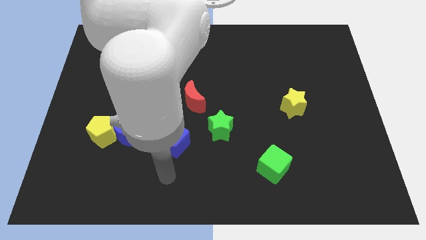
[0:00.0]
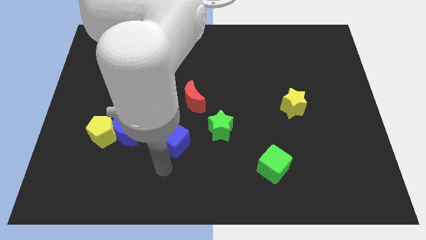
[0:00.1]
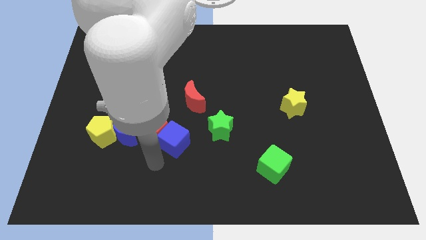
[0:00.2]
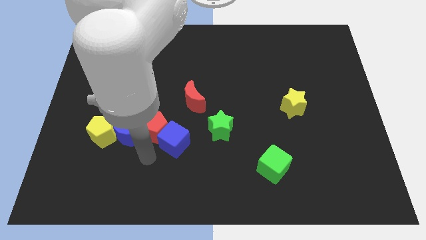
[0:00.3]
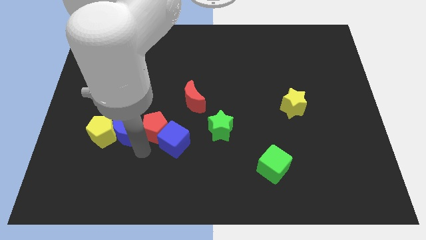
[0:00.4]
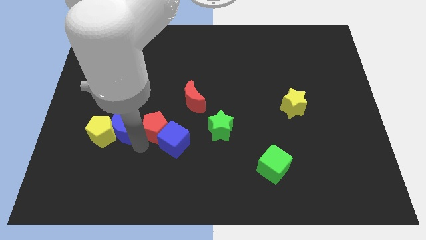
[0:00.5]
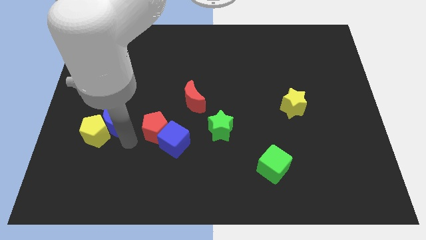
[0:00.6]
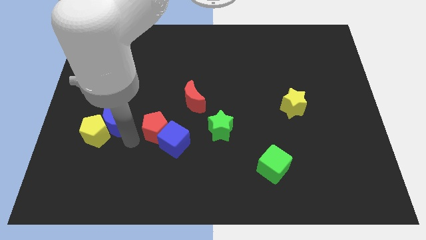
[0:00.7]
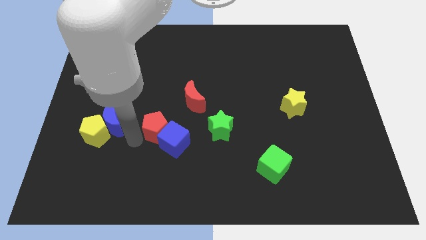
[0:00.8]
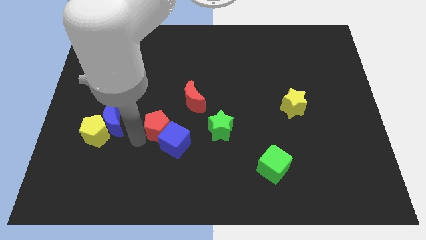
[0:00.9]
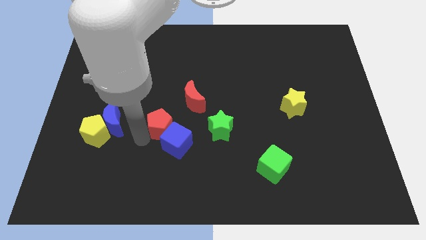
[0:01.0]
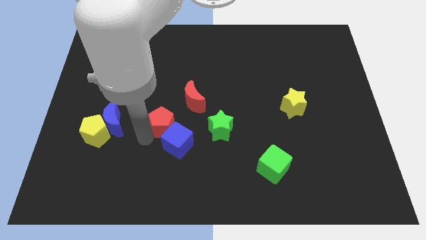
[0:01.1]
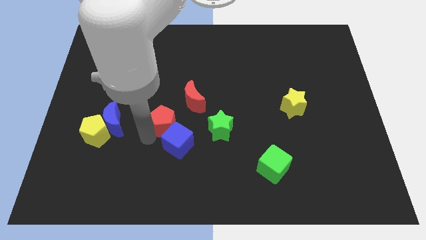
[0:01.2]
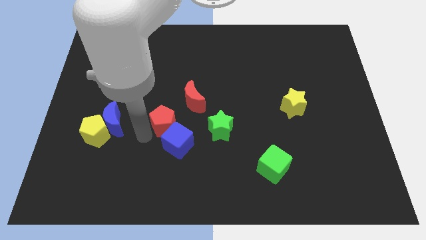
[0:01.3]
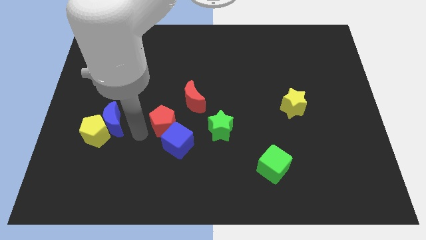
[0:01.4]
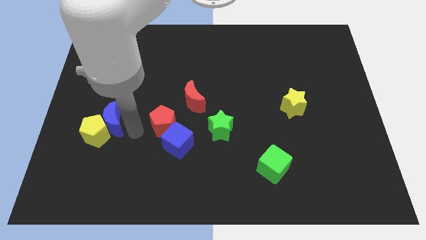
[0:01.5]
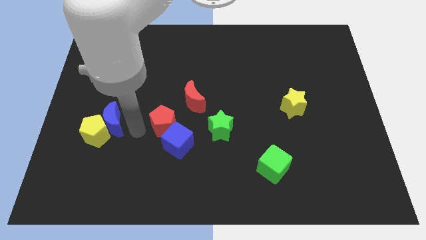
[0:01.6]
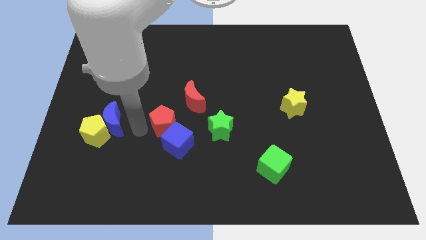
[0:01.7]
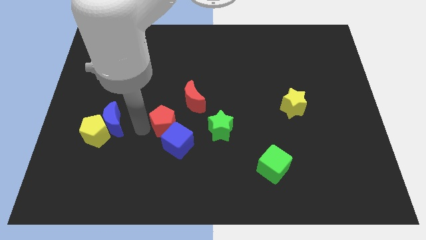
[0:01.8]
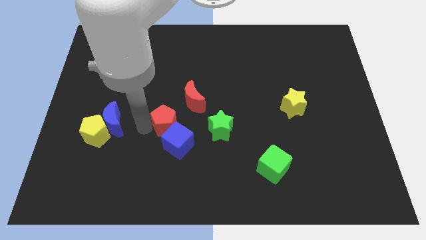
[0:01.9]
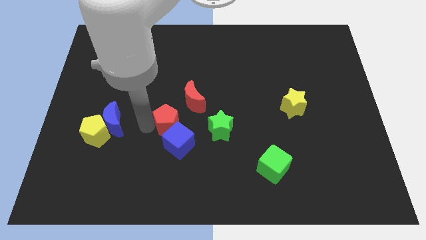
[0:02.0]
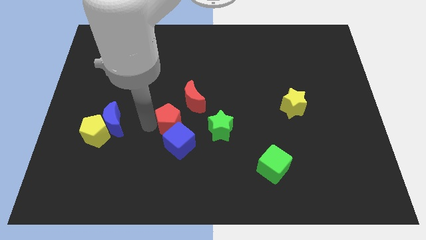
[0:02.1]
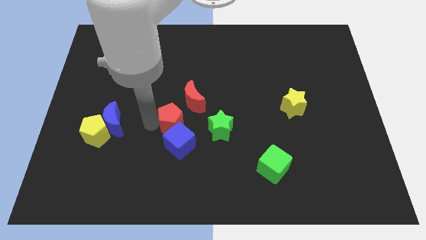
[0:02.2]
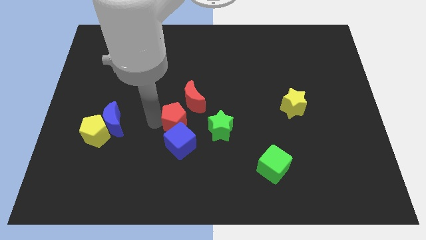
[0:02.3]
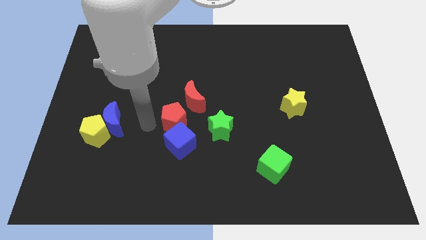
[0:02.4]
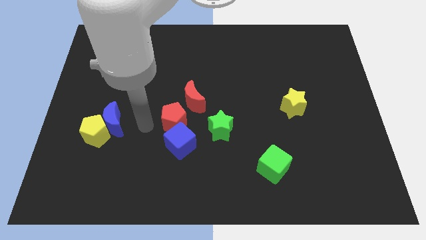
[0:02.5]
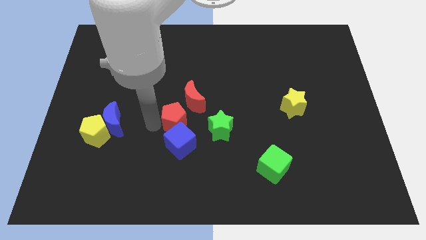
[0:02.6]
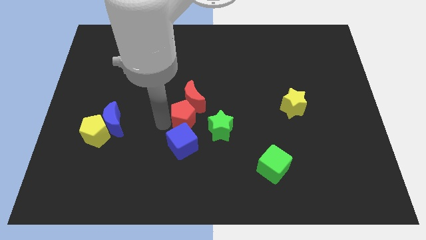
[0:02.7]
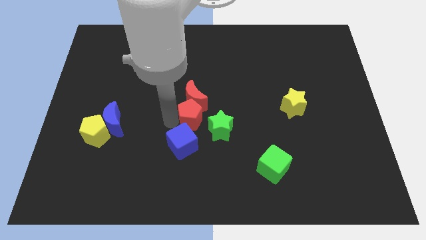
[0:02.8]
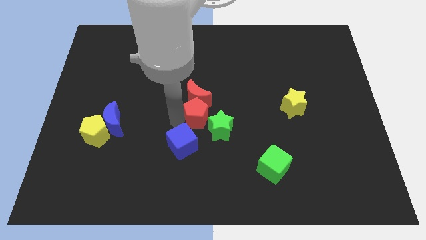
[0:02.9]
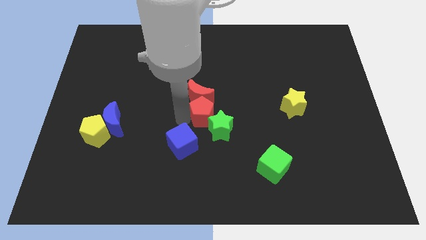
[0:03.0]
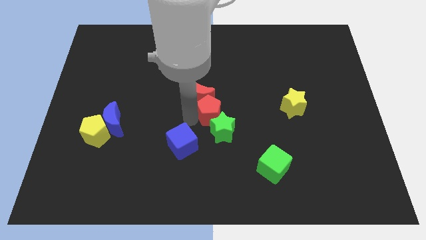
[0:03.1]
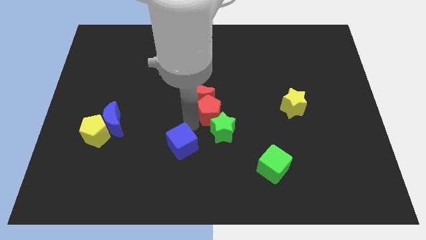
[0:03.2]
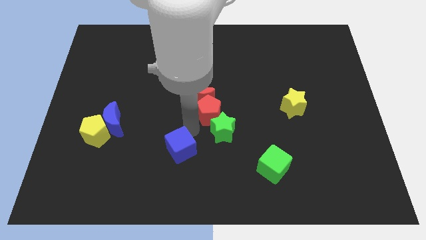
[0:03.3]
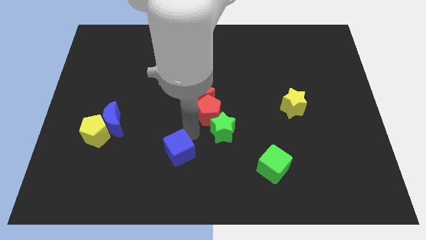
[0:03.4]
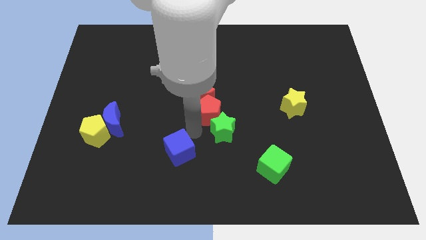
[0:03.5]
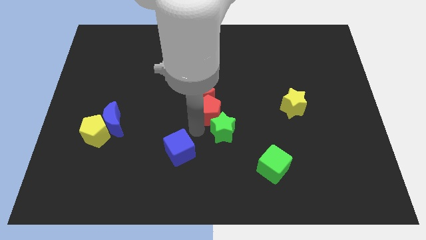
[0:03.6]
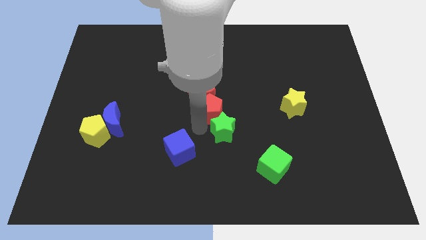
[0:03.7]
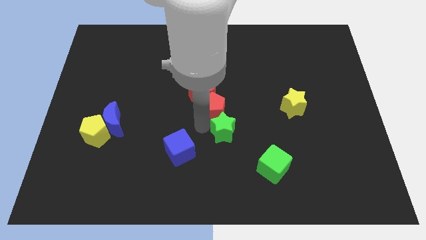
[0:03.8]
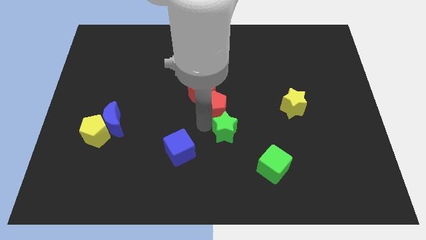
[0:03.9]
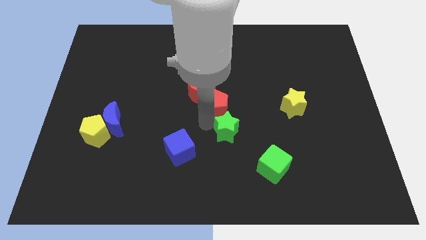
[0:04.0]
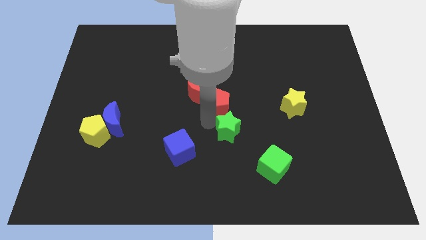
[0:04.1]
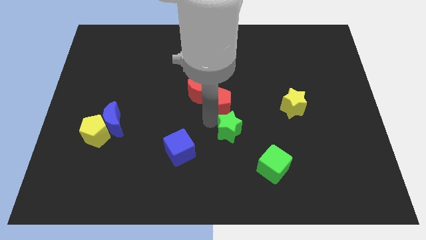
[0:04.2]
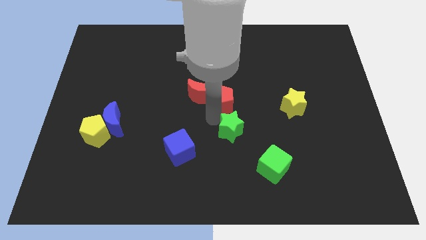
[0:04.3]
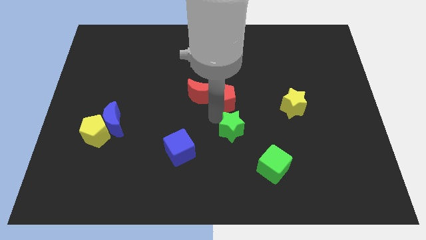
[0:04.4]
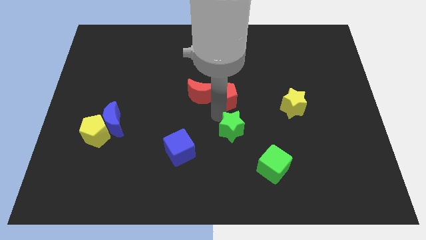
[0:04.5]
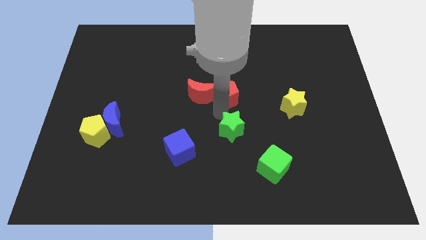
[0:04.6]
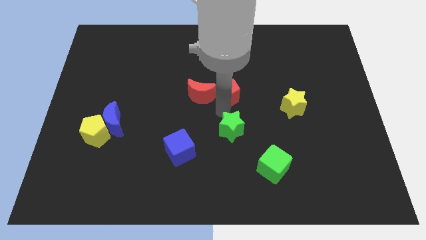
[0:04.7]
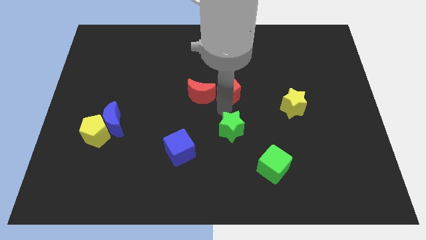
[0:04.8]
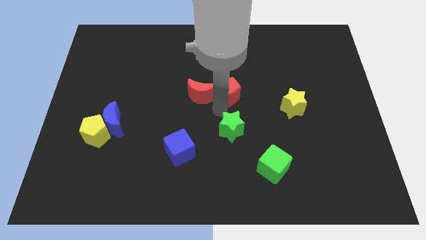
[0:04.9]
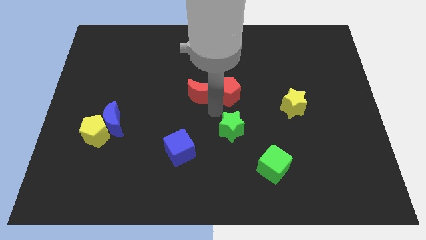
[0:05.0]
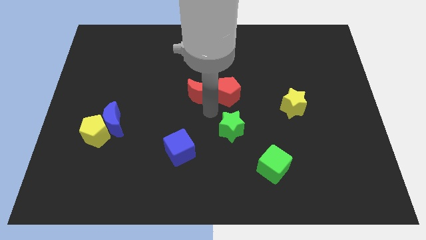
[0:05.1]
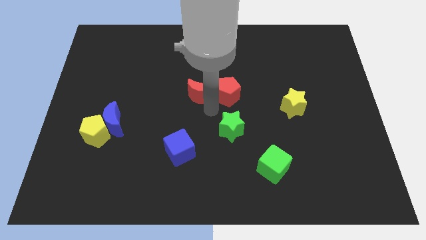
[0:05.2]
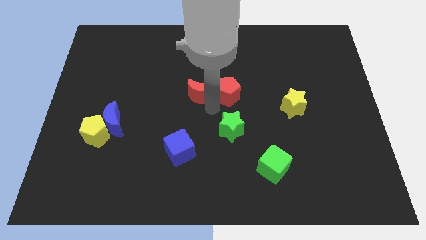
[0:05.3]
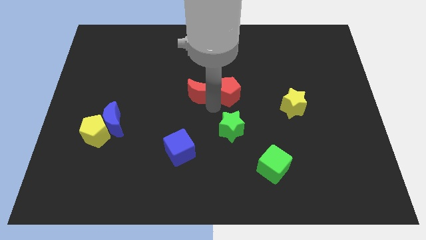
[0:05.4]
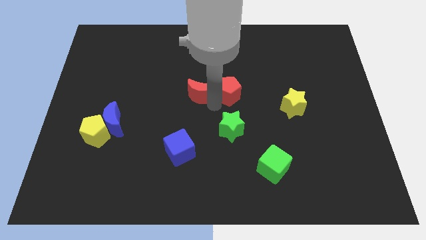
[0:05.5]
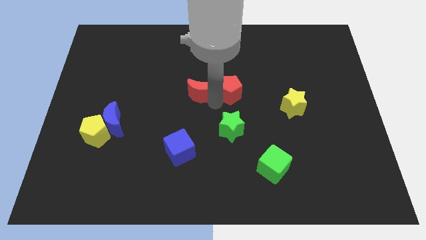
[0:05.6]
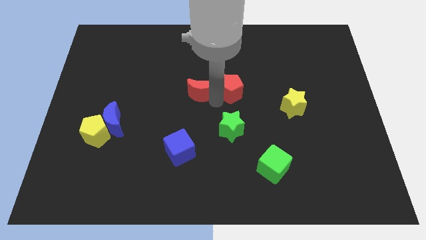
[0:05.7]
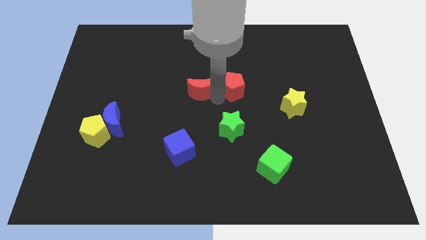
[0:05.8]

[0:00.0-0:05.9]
push the red pentagon up and to the right

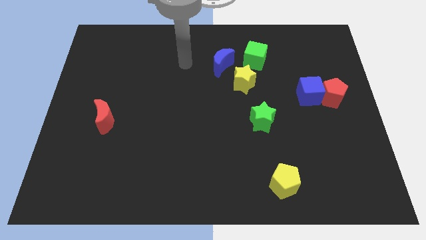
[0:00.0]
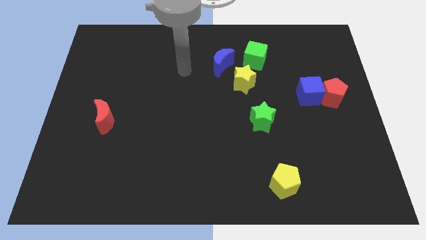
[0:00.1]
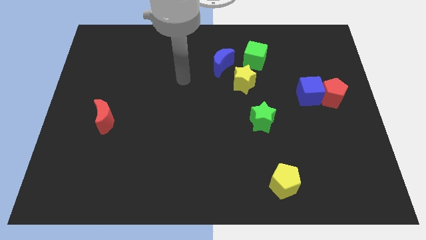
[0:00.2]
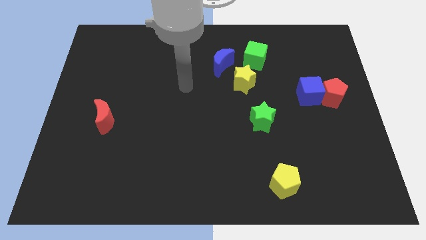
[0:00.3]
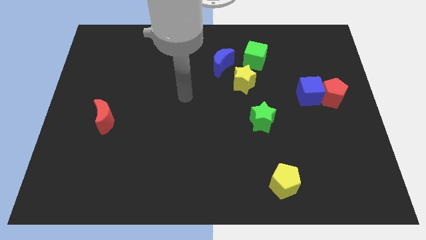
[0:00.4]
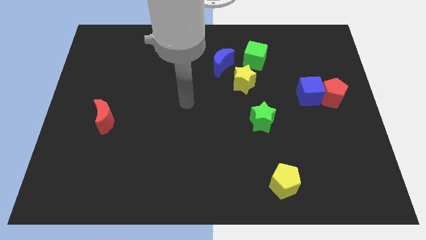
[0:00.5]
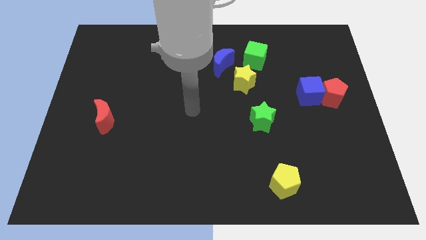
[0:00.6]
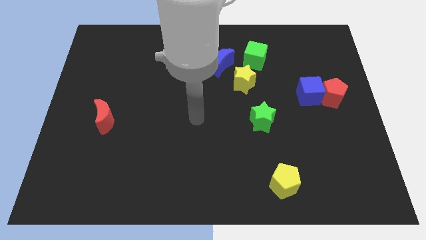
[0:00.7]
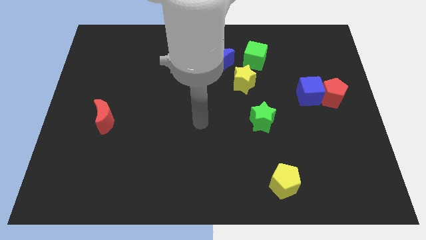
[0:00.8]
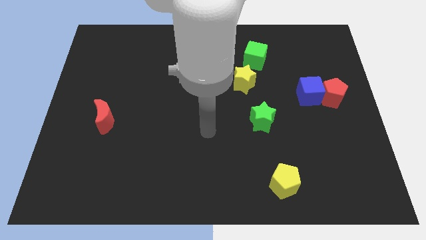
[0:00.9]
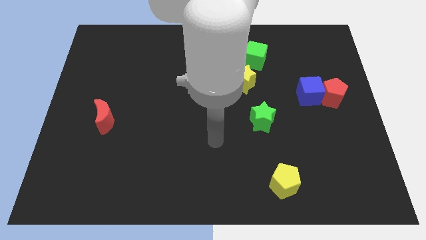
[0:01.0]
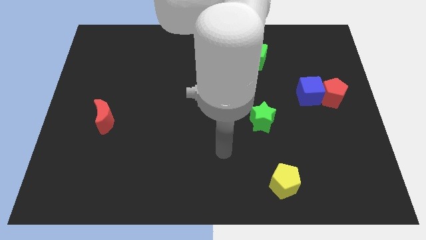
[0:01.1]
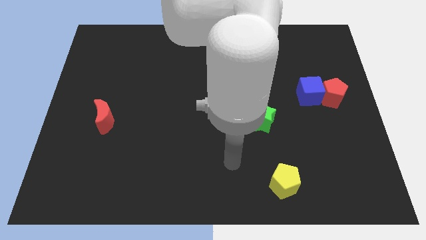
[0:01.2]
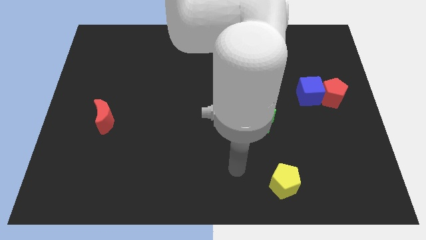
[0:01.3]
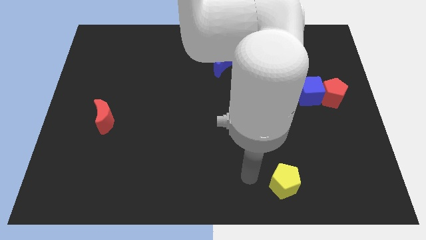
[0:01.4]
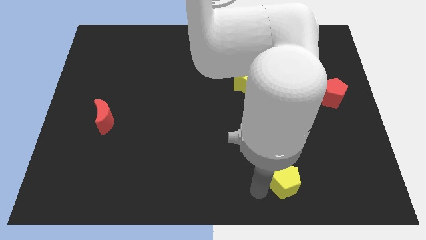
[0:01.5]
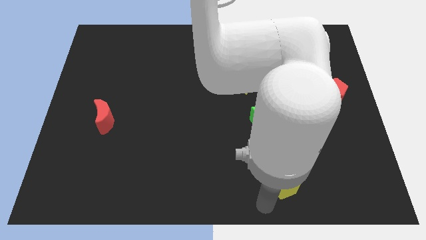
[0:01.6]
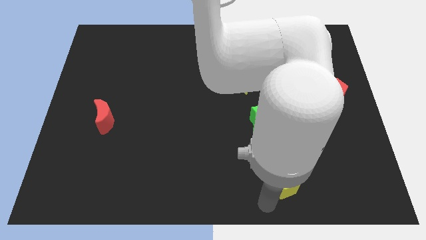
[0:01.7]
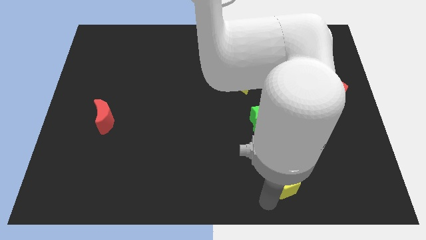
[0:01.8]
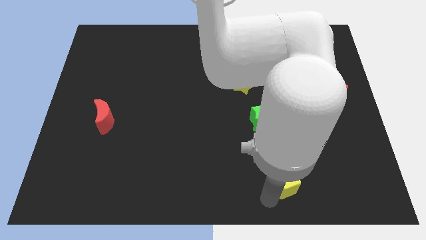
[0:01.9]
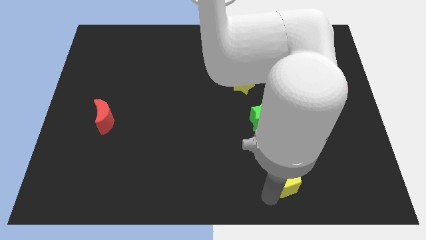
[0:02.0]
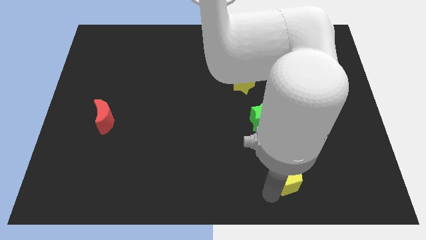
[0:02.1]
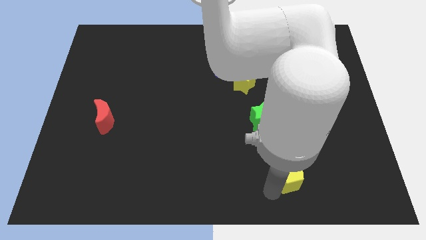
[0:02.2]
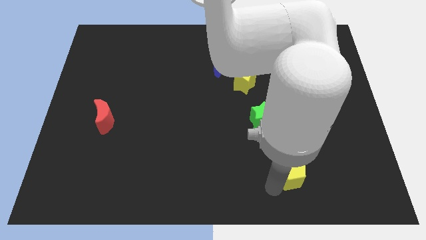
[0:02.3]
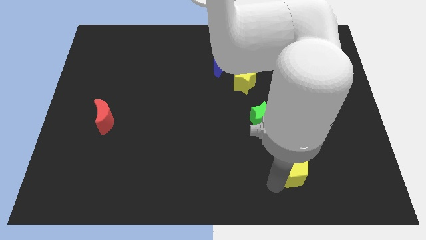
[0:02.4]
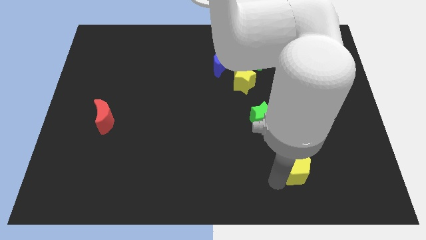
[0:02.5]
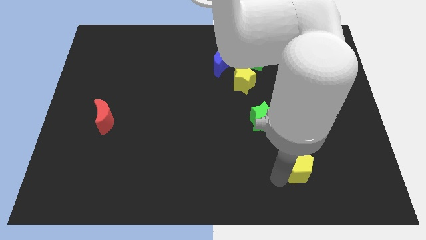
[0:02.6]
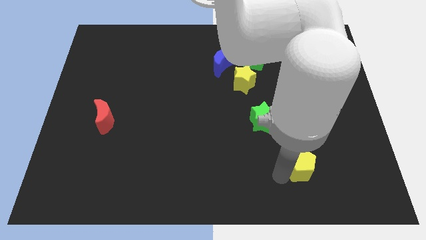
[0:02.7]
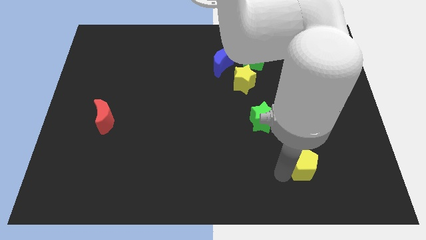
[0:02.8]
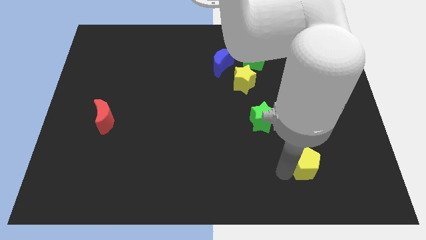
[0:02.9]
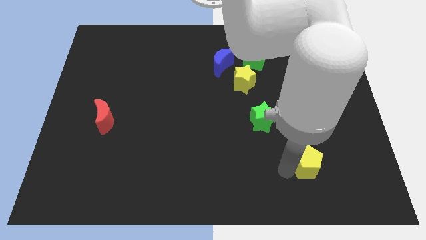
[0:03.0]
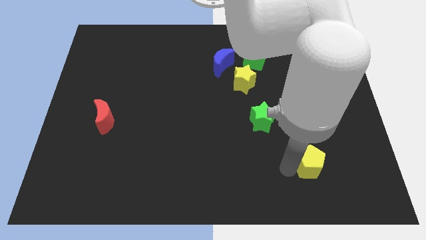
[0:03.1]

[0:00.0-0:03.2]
slightly slide the yellow pentagon upwards and to the right diagonally
